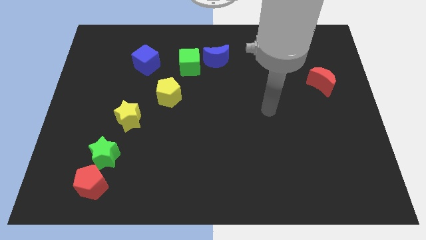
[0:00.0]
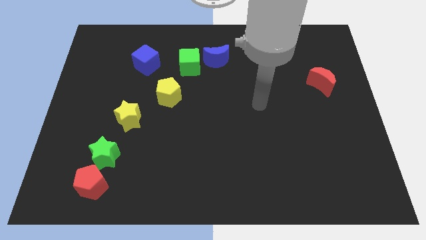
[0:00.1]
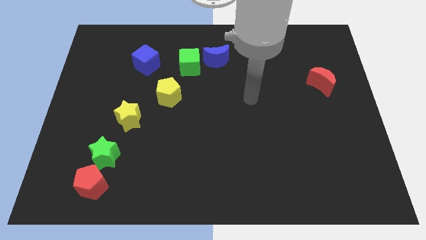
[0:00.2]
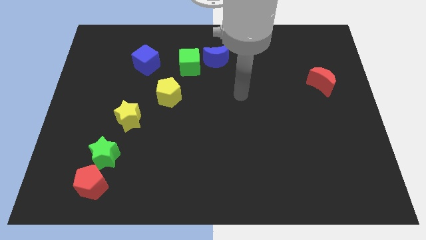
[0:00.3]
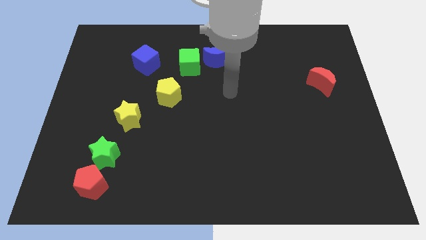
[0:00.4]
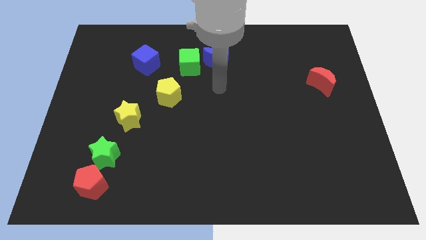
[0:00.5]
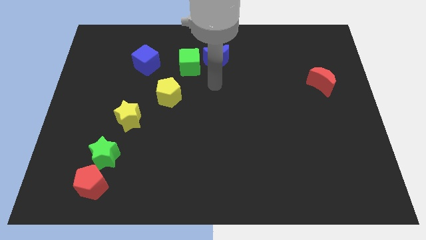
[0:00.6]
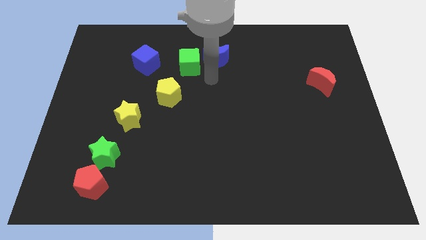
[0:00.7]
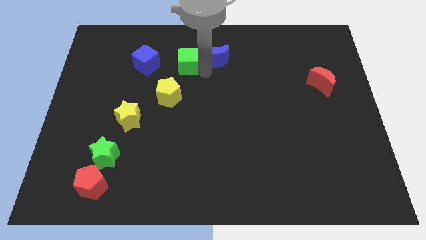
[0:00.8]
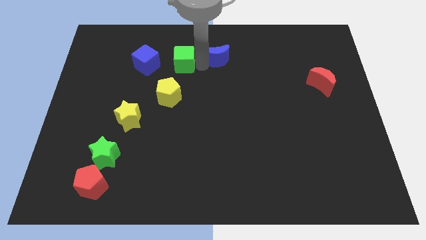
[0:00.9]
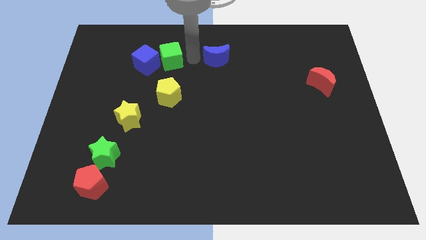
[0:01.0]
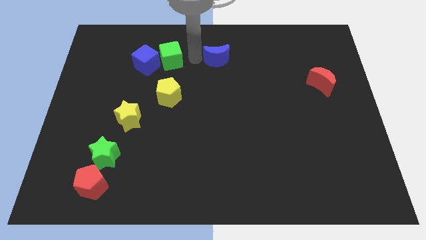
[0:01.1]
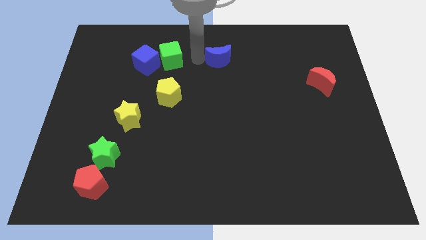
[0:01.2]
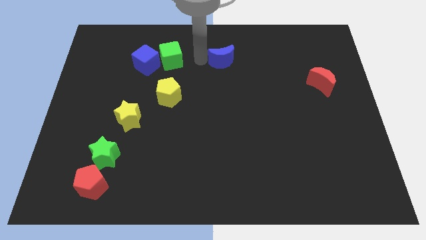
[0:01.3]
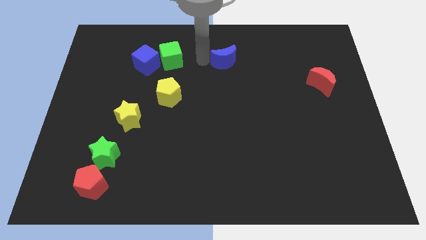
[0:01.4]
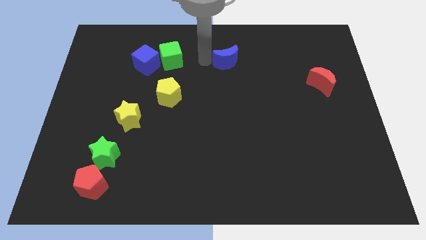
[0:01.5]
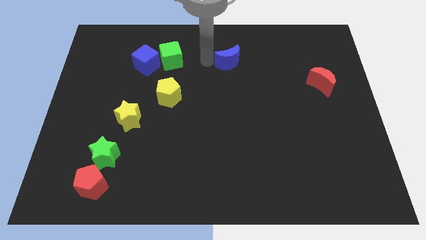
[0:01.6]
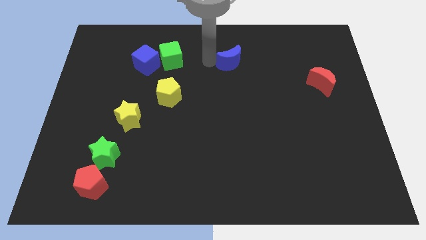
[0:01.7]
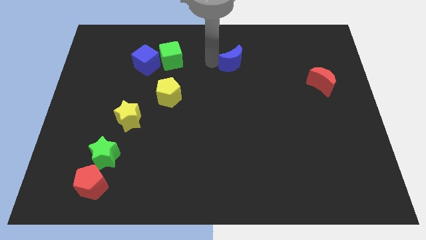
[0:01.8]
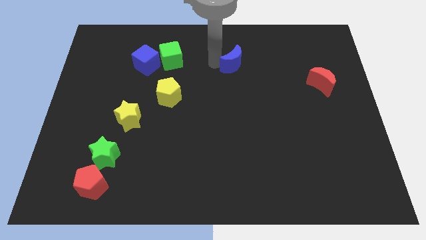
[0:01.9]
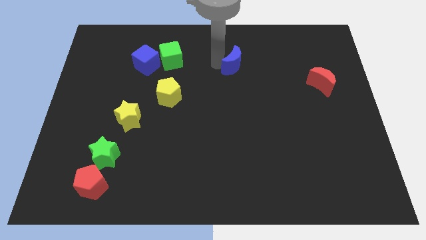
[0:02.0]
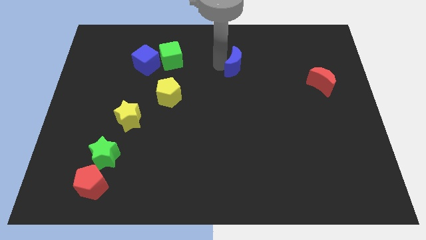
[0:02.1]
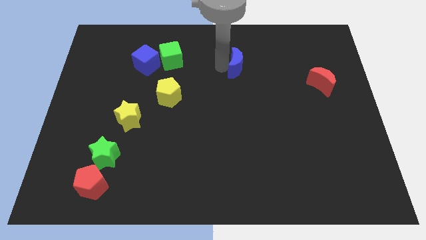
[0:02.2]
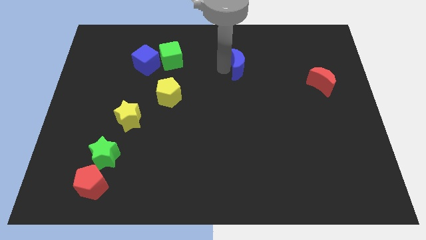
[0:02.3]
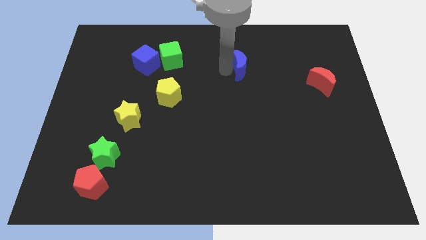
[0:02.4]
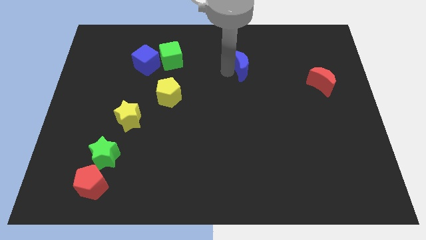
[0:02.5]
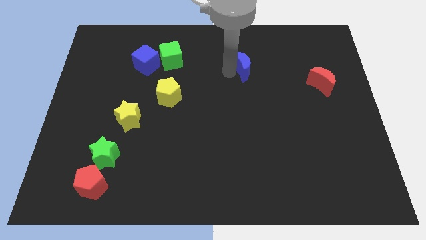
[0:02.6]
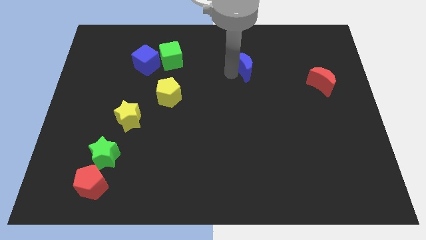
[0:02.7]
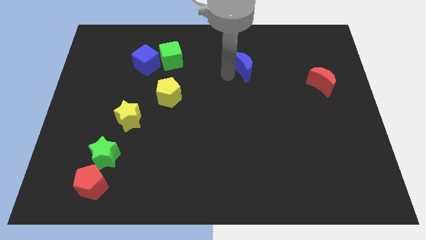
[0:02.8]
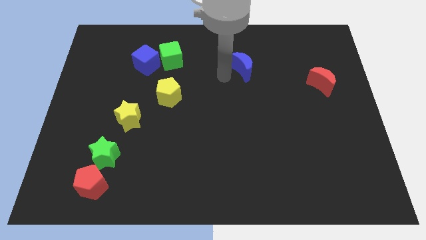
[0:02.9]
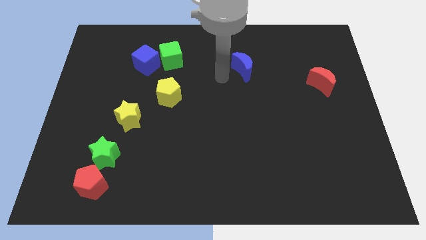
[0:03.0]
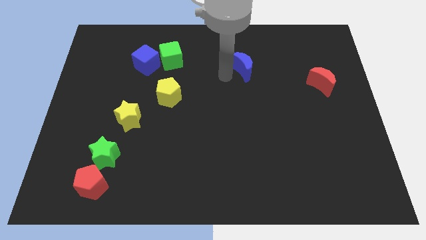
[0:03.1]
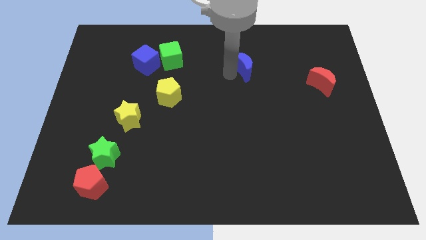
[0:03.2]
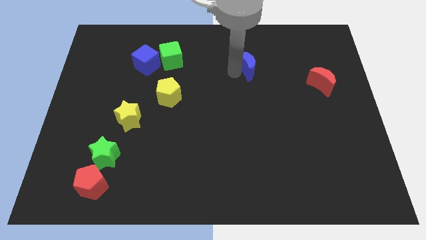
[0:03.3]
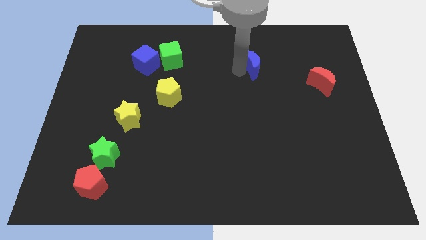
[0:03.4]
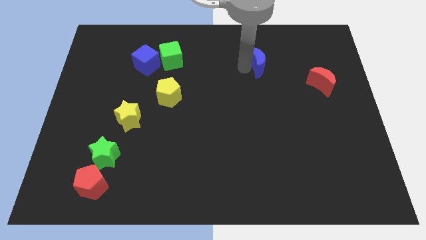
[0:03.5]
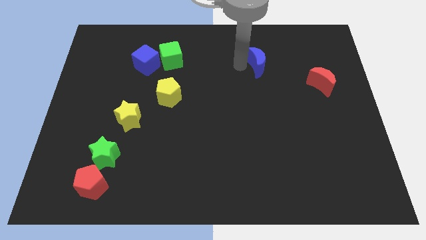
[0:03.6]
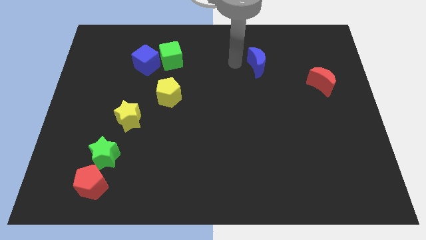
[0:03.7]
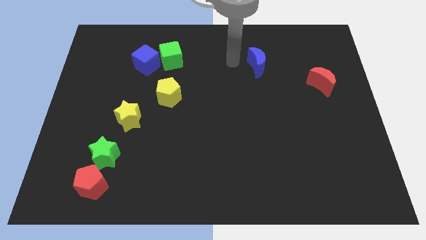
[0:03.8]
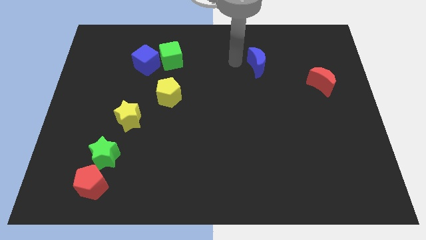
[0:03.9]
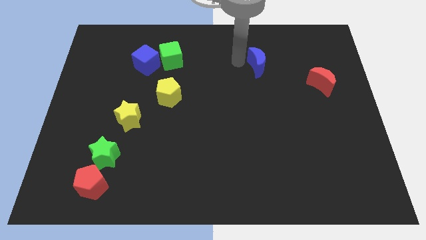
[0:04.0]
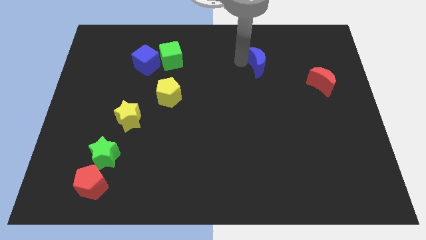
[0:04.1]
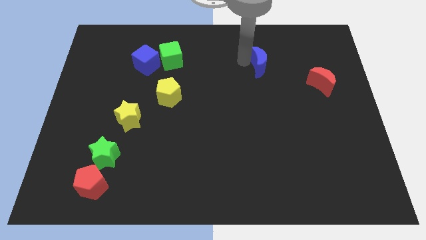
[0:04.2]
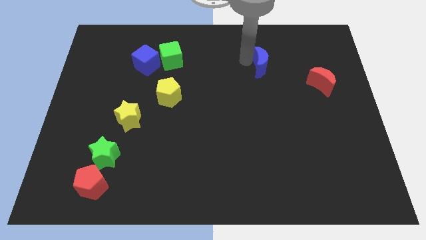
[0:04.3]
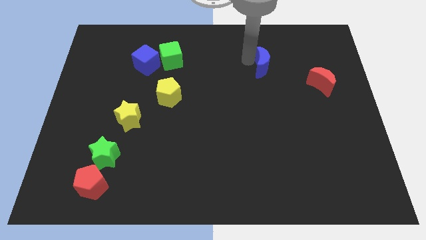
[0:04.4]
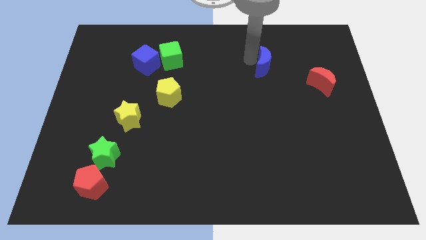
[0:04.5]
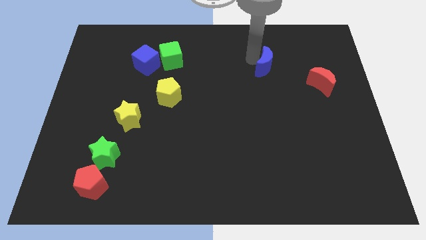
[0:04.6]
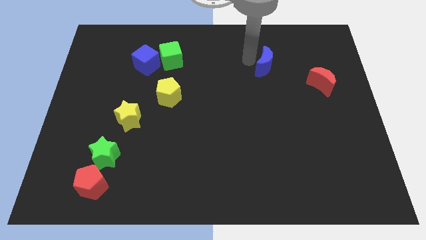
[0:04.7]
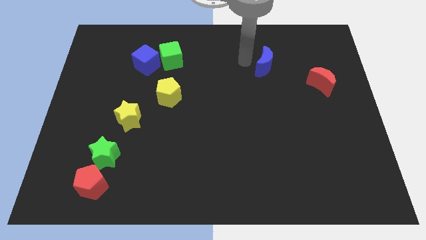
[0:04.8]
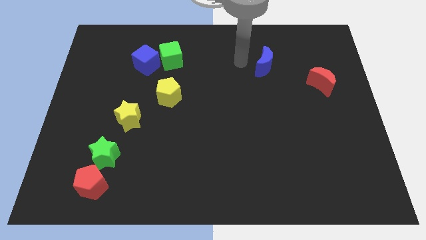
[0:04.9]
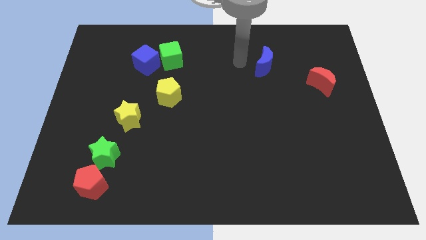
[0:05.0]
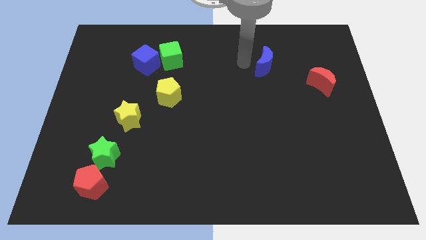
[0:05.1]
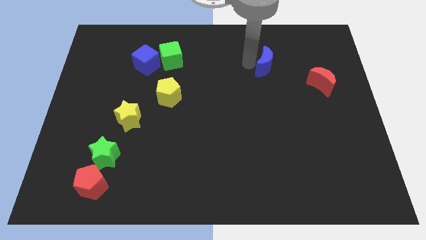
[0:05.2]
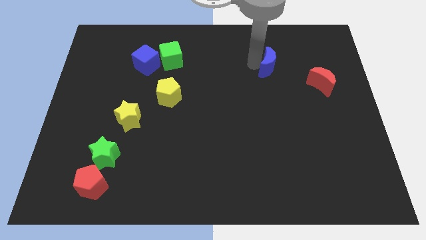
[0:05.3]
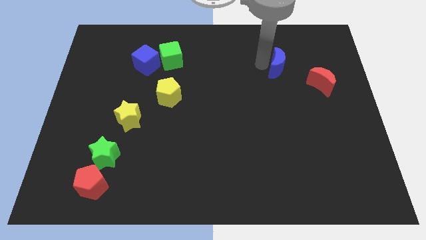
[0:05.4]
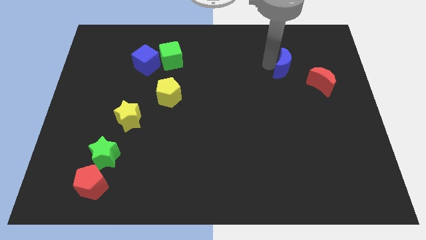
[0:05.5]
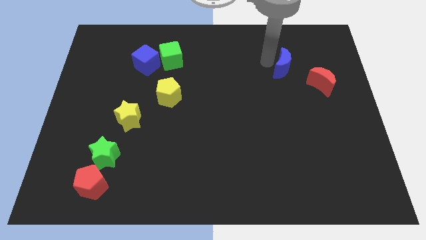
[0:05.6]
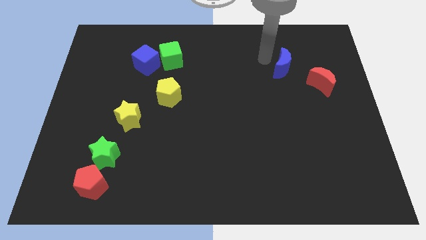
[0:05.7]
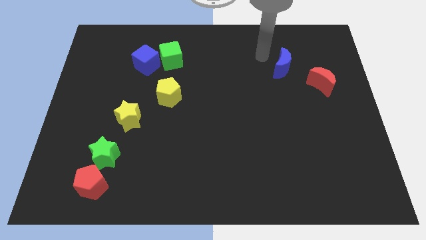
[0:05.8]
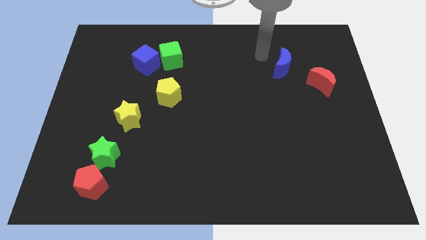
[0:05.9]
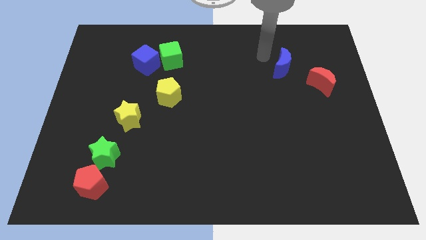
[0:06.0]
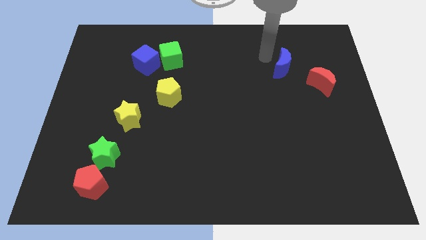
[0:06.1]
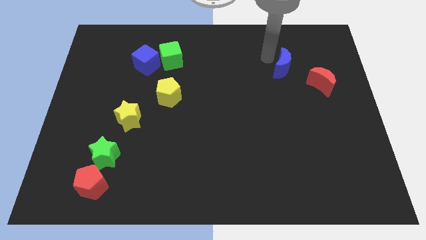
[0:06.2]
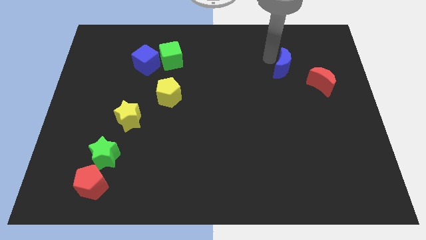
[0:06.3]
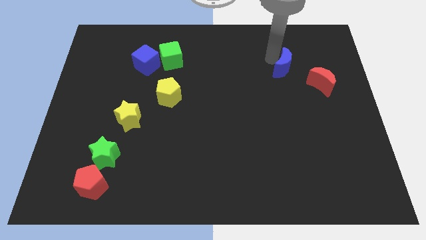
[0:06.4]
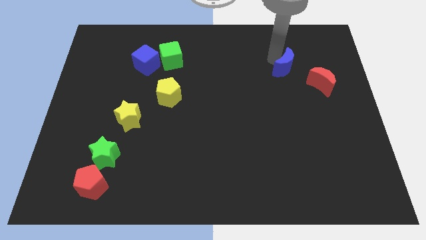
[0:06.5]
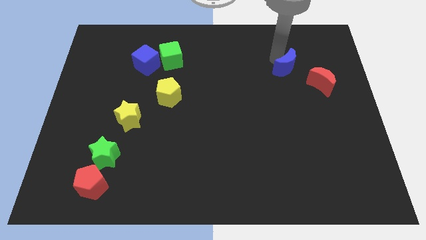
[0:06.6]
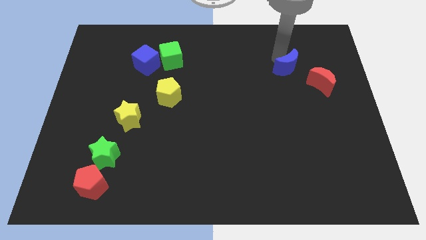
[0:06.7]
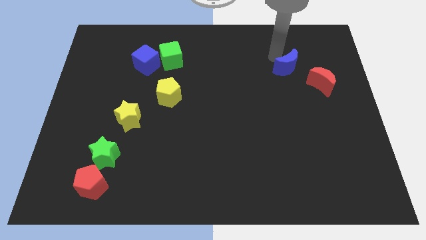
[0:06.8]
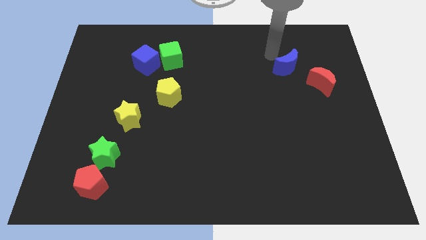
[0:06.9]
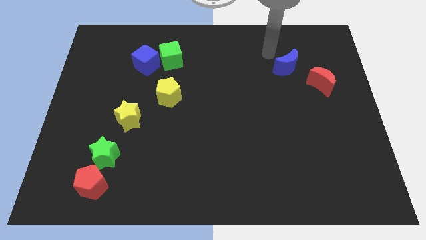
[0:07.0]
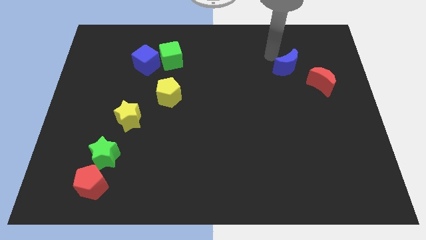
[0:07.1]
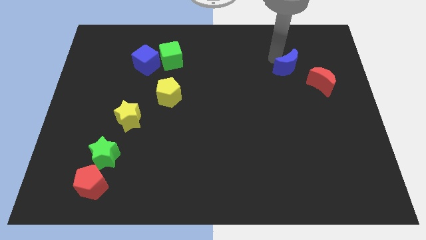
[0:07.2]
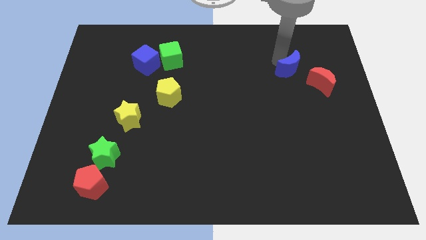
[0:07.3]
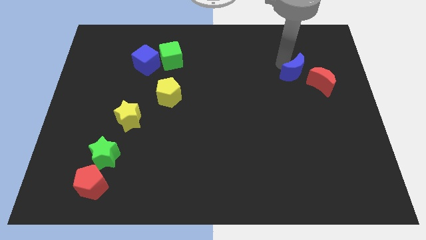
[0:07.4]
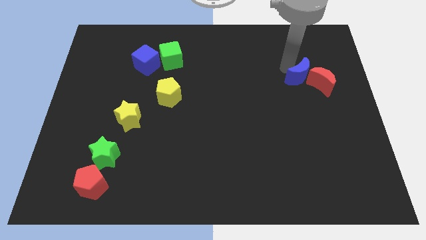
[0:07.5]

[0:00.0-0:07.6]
move the blue moon next to the red moon

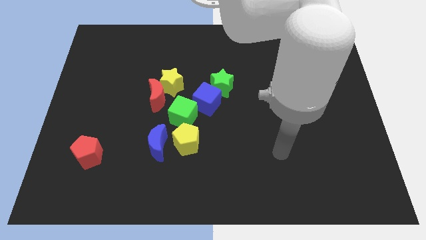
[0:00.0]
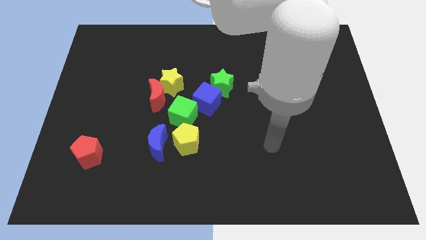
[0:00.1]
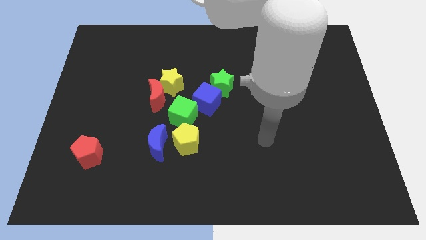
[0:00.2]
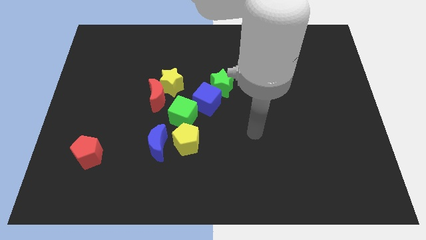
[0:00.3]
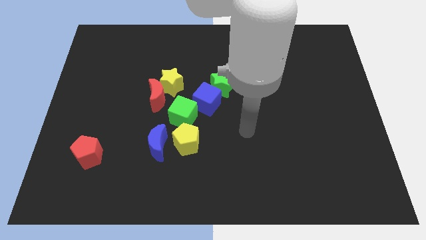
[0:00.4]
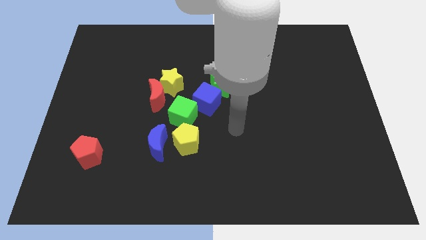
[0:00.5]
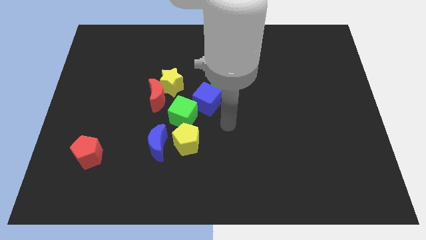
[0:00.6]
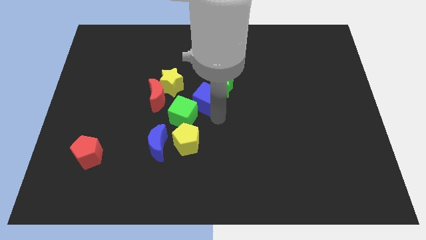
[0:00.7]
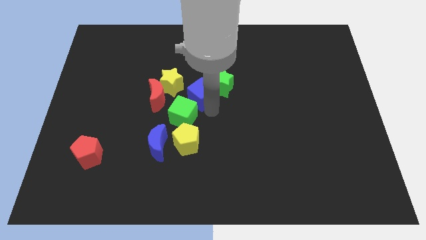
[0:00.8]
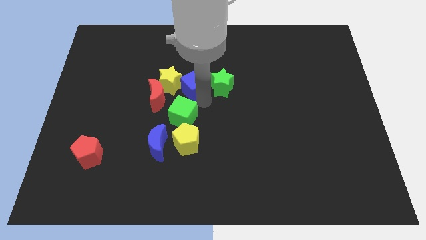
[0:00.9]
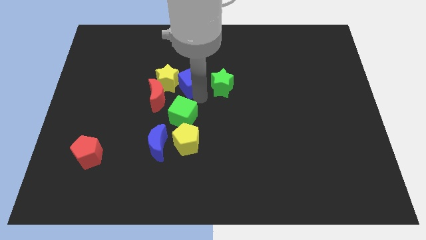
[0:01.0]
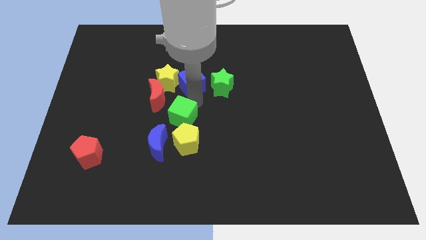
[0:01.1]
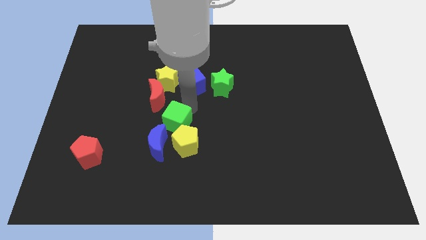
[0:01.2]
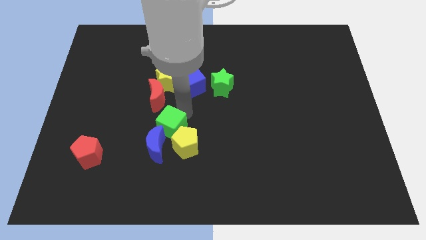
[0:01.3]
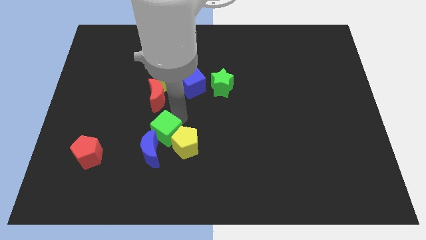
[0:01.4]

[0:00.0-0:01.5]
slide the green cube next to the blue moon
